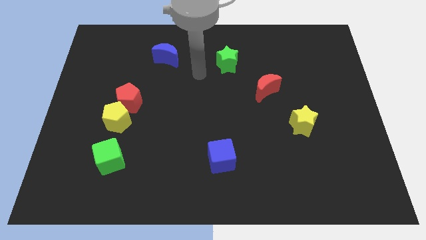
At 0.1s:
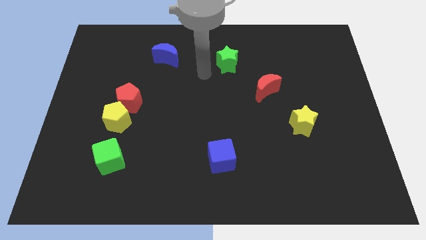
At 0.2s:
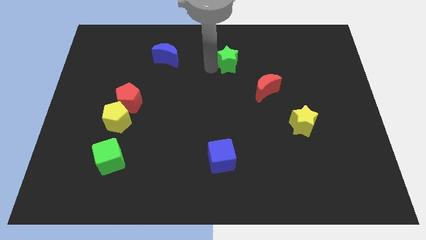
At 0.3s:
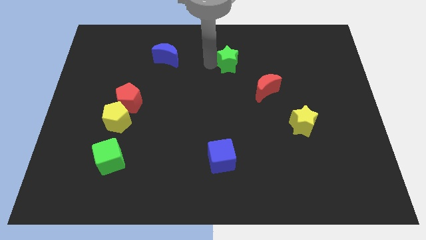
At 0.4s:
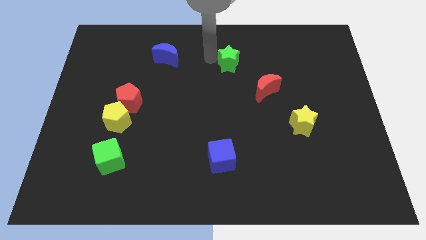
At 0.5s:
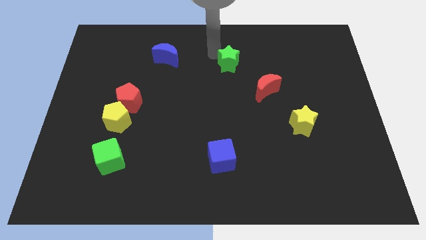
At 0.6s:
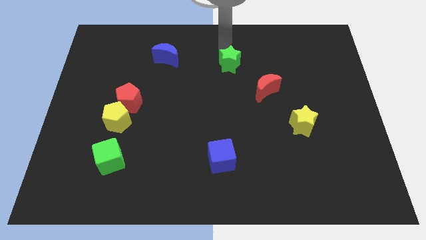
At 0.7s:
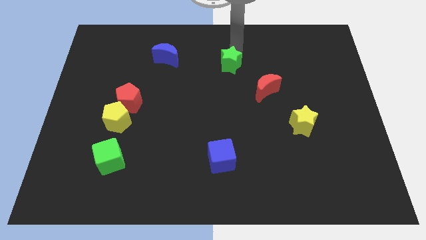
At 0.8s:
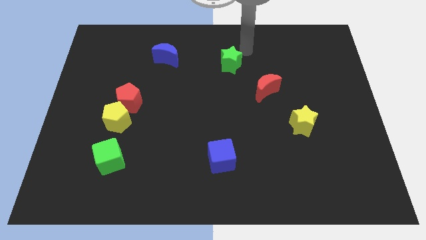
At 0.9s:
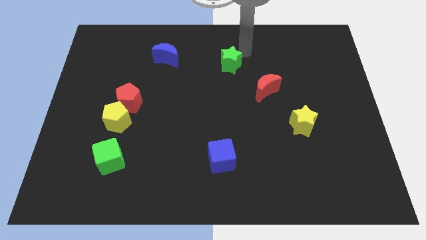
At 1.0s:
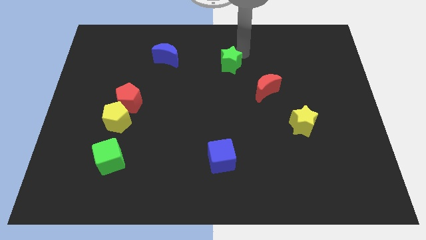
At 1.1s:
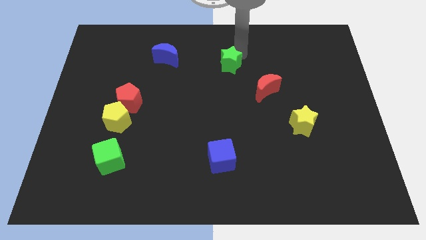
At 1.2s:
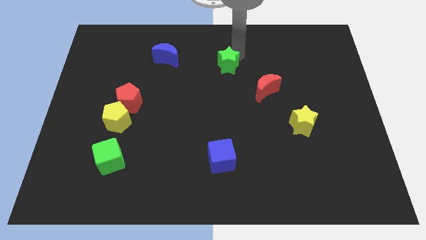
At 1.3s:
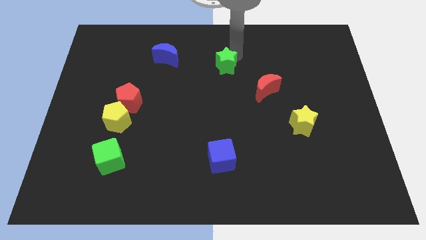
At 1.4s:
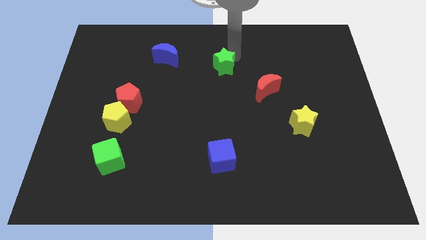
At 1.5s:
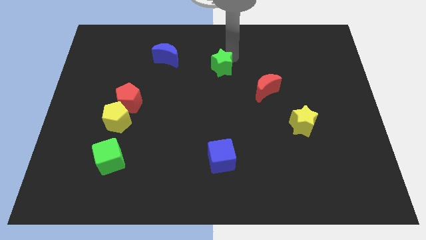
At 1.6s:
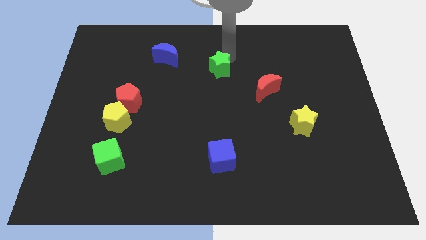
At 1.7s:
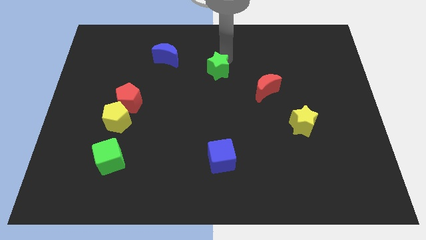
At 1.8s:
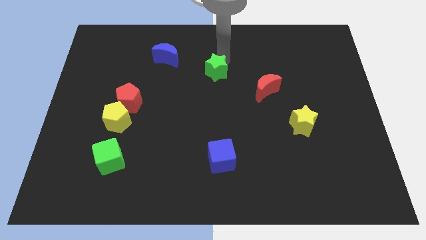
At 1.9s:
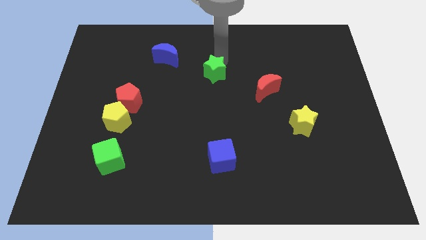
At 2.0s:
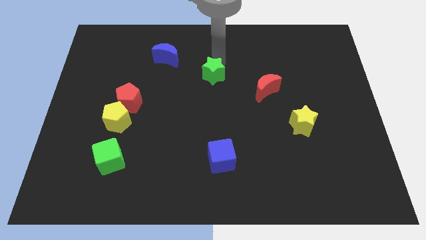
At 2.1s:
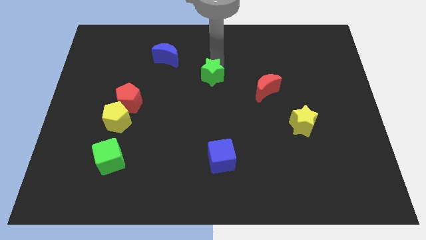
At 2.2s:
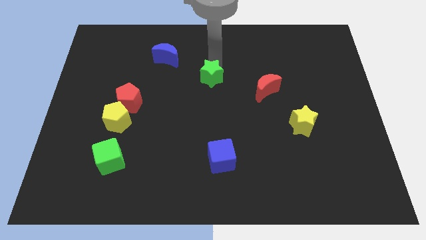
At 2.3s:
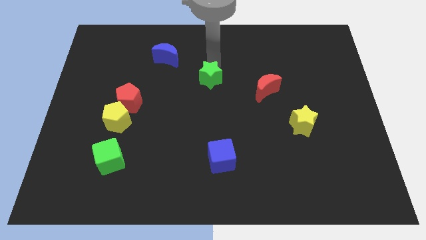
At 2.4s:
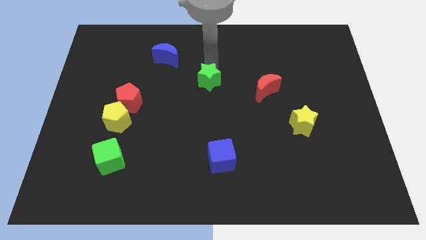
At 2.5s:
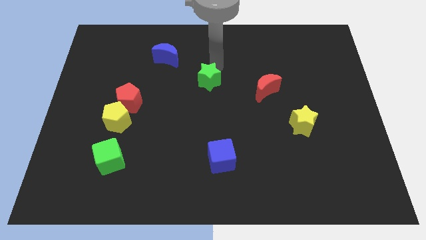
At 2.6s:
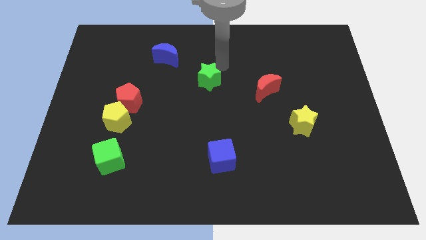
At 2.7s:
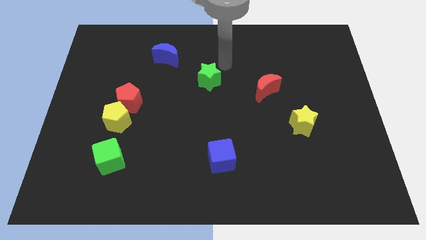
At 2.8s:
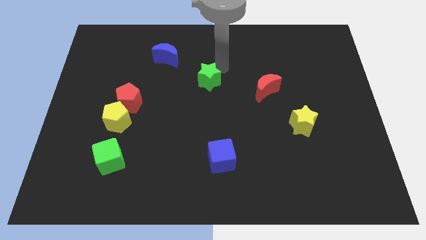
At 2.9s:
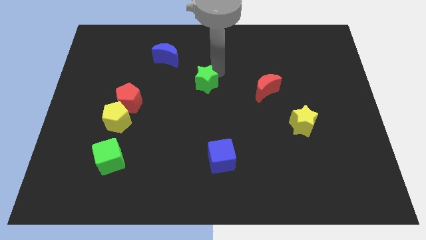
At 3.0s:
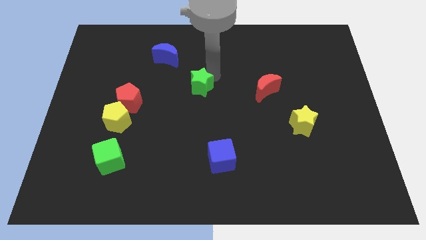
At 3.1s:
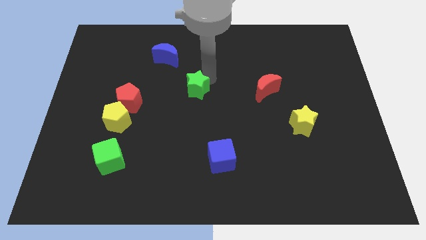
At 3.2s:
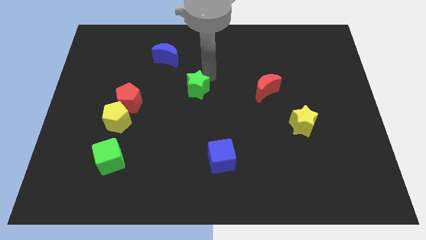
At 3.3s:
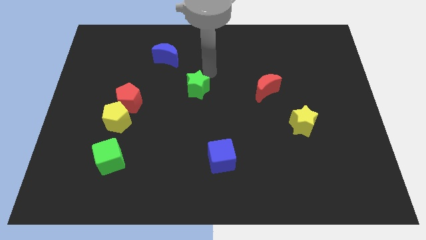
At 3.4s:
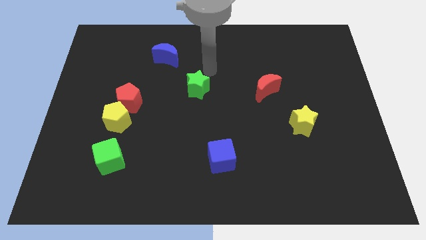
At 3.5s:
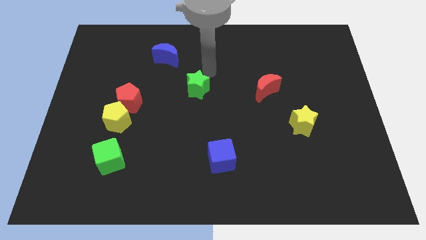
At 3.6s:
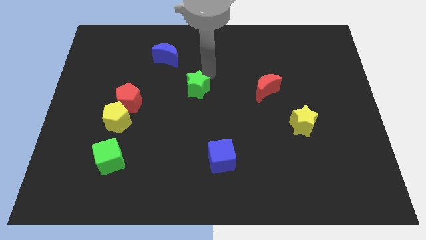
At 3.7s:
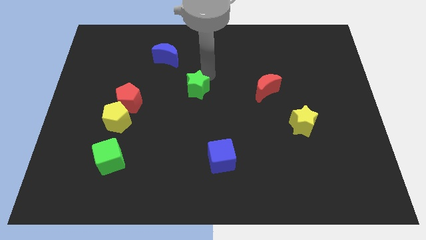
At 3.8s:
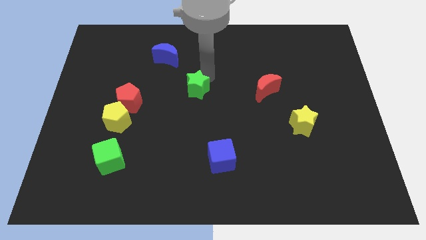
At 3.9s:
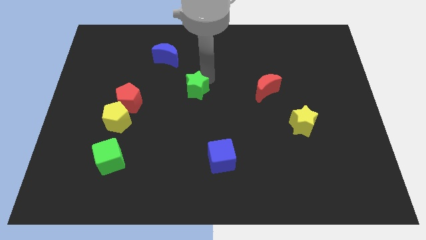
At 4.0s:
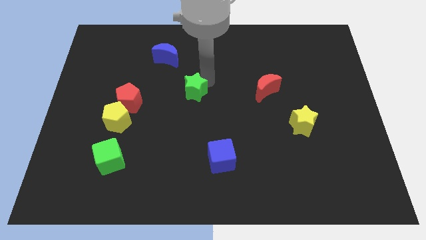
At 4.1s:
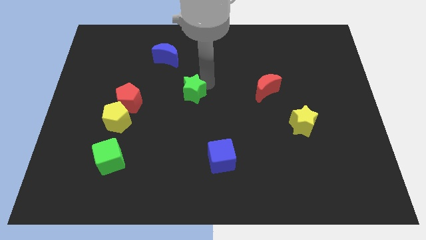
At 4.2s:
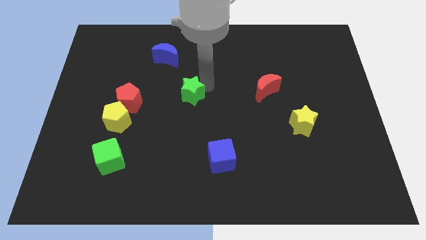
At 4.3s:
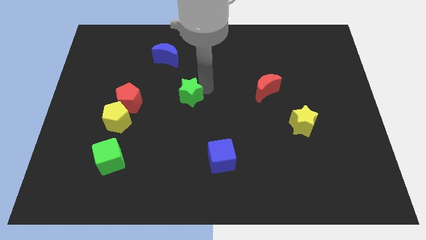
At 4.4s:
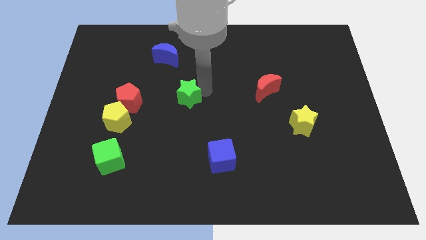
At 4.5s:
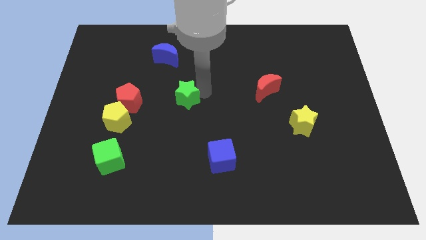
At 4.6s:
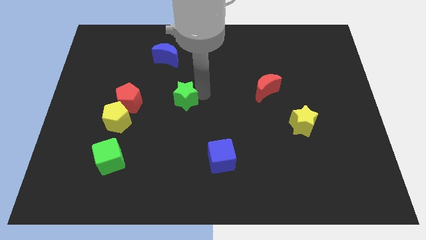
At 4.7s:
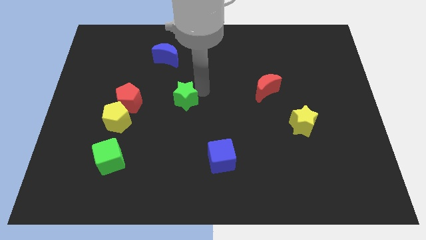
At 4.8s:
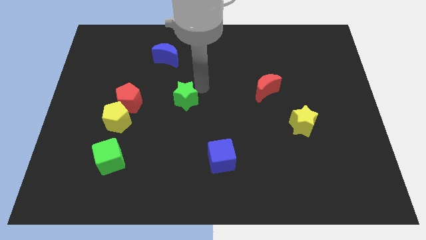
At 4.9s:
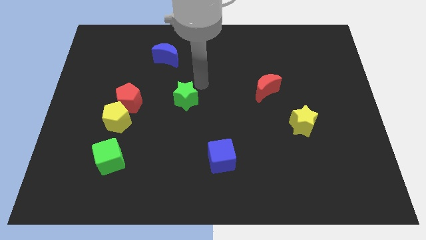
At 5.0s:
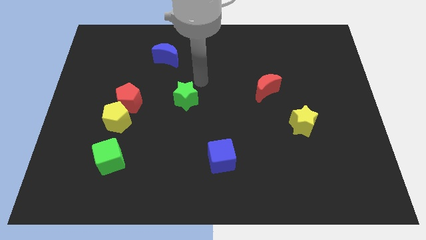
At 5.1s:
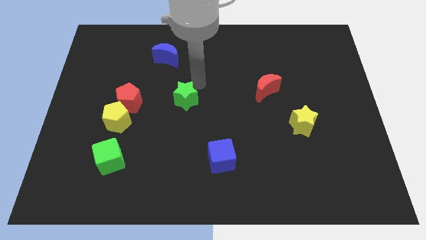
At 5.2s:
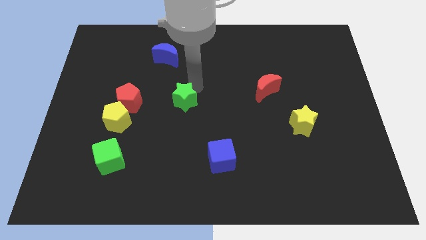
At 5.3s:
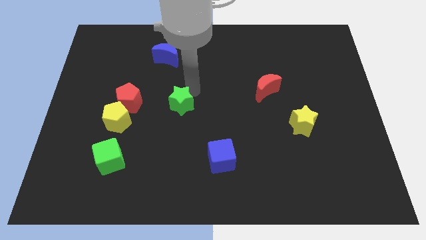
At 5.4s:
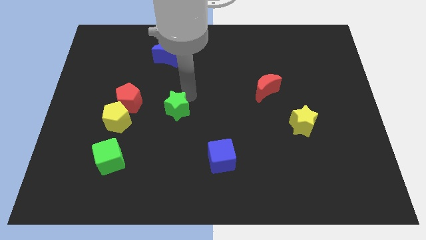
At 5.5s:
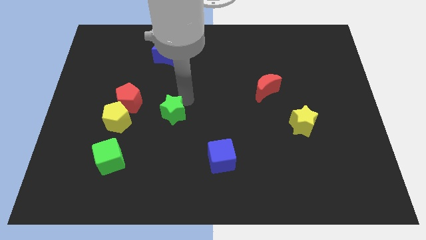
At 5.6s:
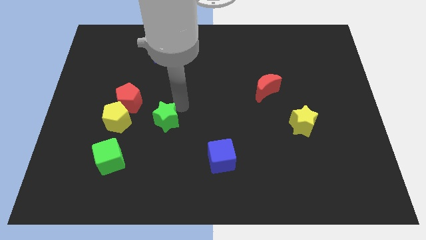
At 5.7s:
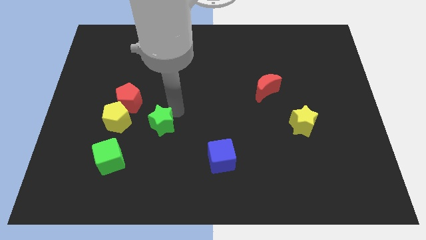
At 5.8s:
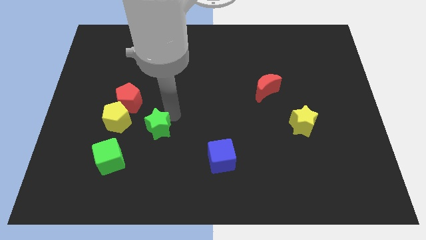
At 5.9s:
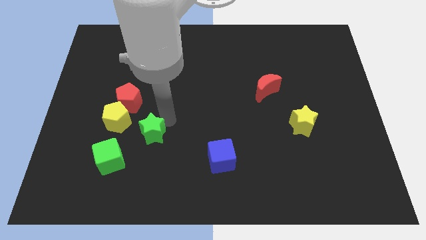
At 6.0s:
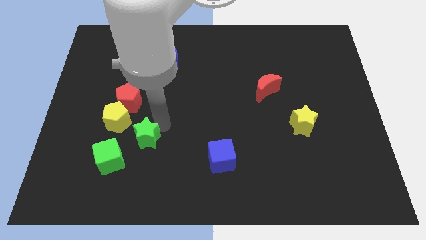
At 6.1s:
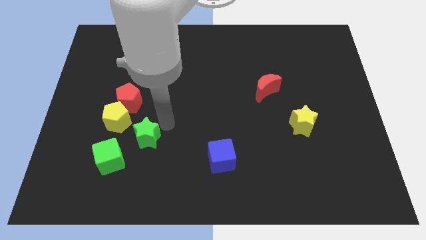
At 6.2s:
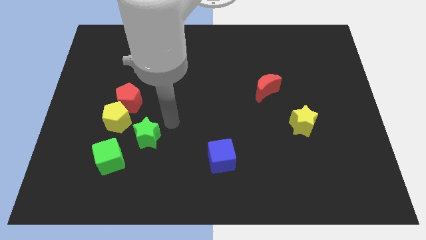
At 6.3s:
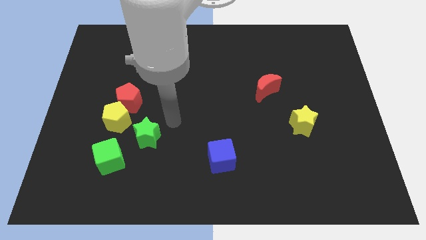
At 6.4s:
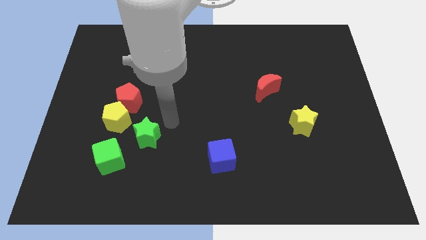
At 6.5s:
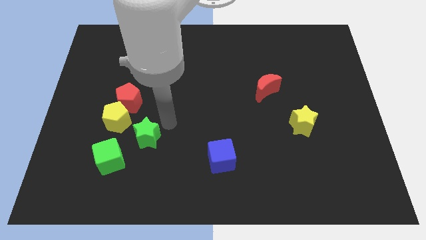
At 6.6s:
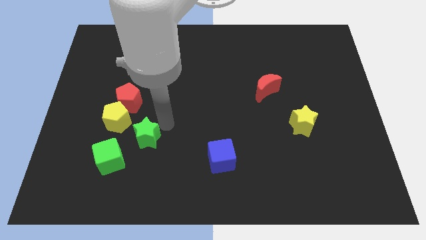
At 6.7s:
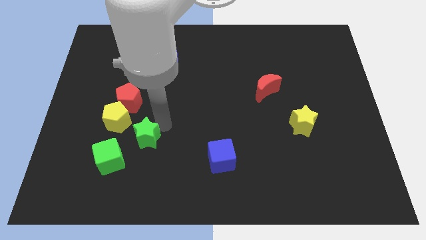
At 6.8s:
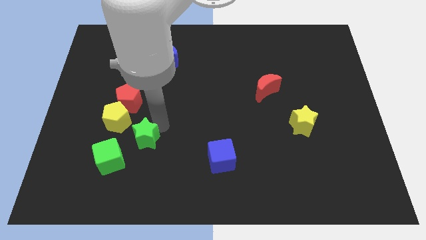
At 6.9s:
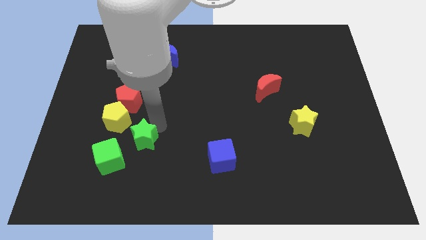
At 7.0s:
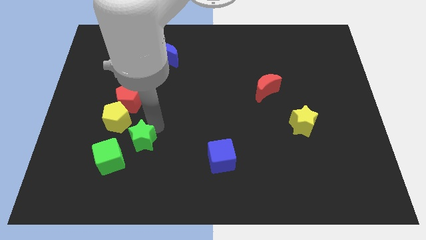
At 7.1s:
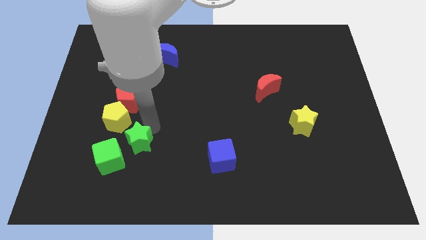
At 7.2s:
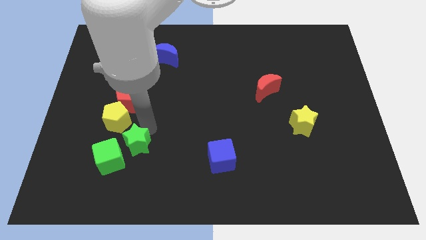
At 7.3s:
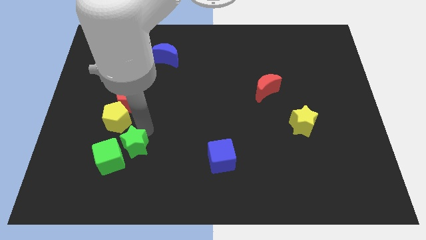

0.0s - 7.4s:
put the green star next to the green cube
